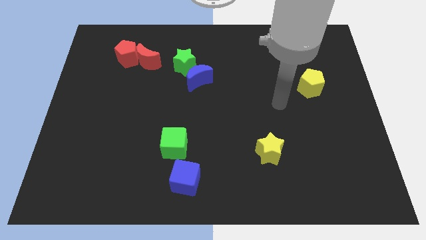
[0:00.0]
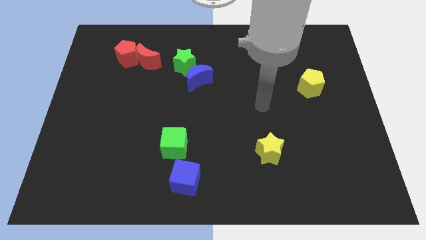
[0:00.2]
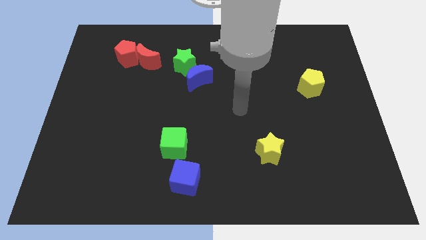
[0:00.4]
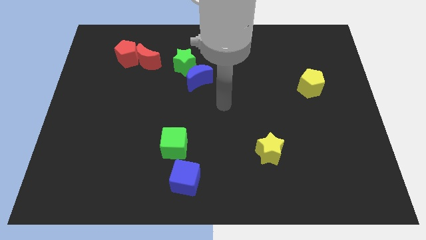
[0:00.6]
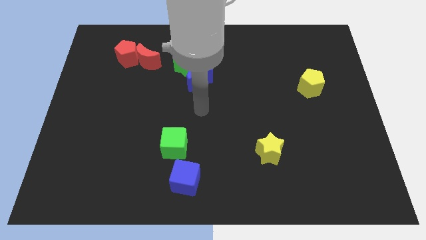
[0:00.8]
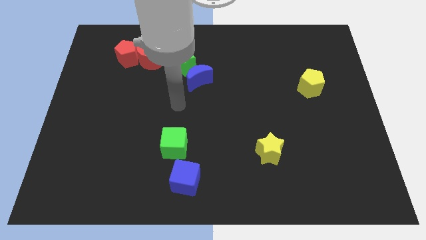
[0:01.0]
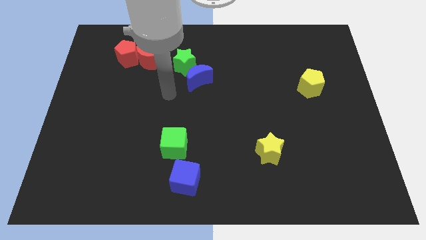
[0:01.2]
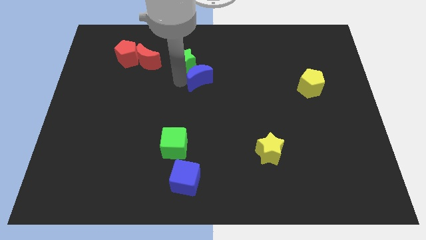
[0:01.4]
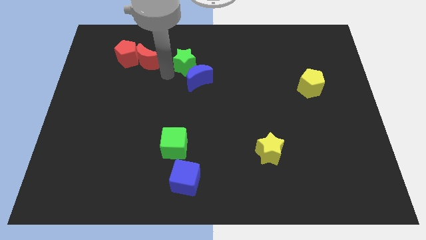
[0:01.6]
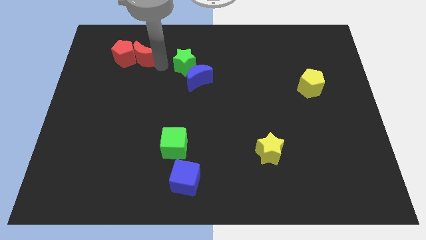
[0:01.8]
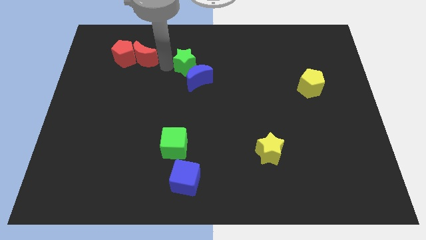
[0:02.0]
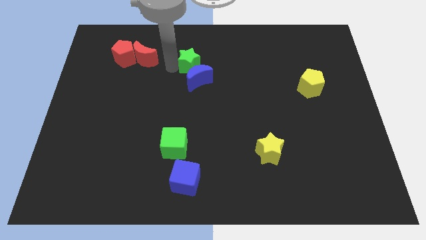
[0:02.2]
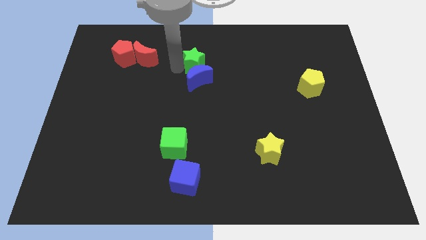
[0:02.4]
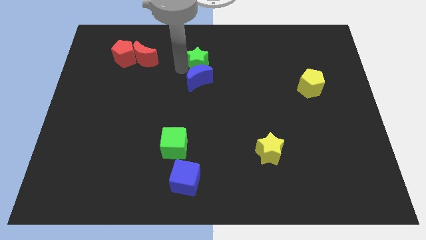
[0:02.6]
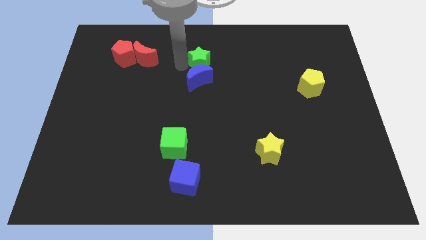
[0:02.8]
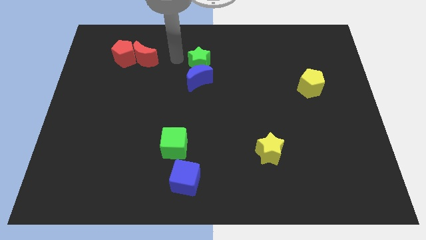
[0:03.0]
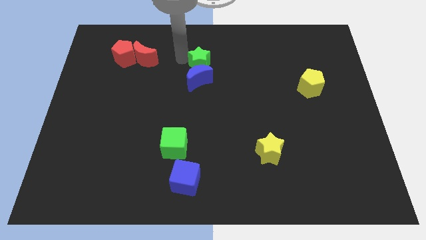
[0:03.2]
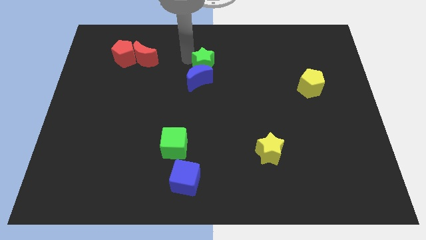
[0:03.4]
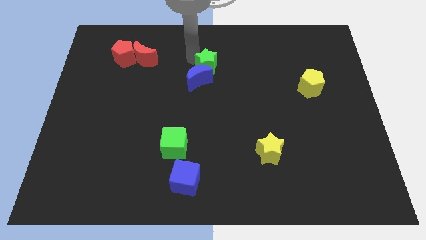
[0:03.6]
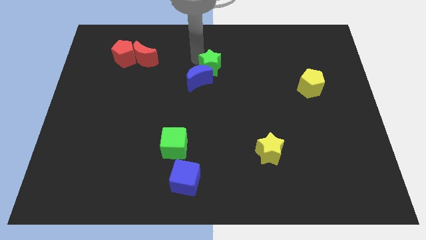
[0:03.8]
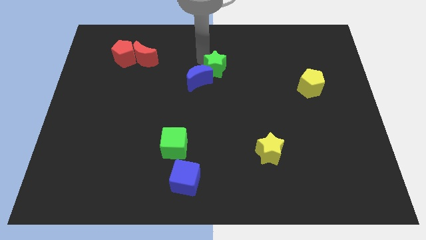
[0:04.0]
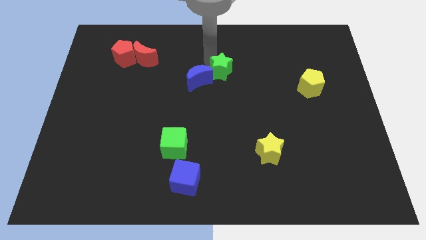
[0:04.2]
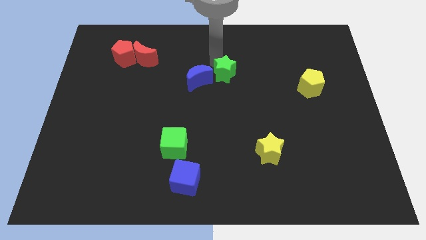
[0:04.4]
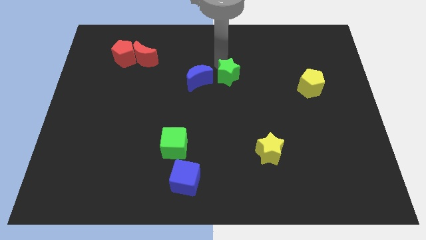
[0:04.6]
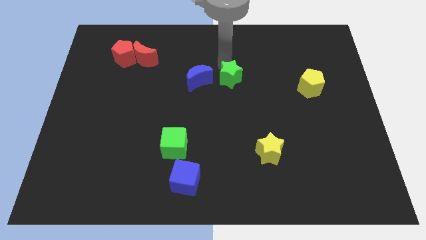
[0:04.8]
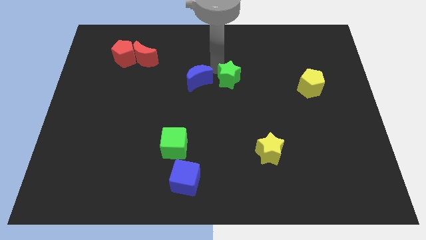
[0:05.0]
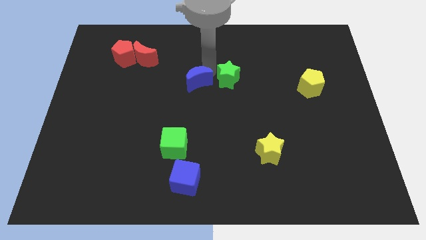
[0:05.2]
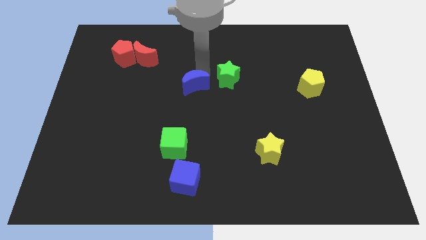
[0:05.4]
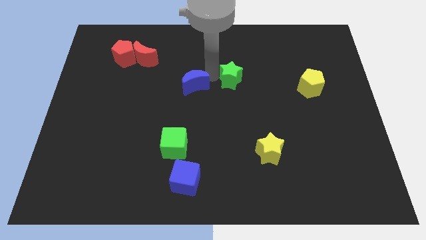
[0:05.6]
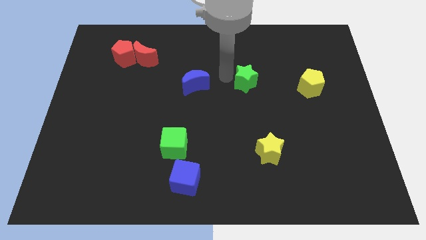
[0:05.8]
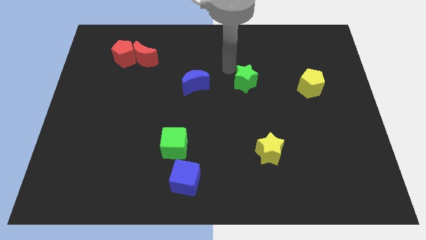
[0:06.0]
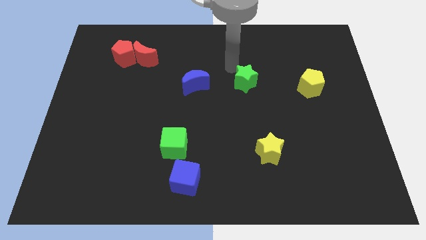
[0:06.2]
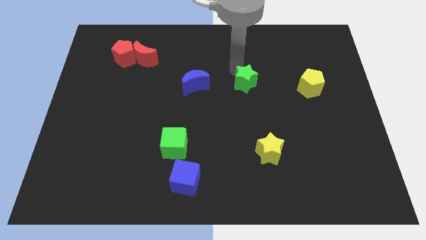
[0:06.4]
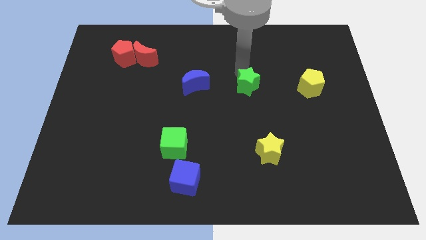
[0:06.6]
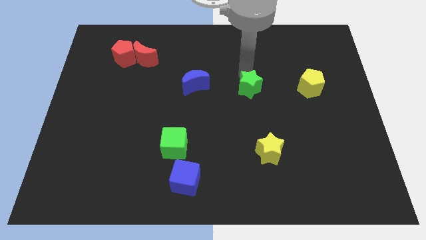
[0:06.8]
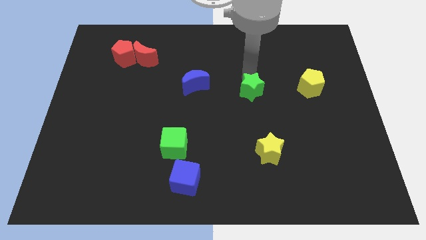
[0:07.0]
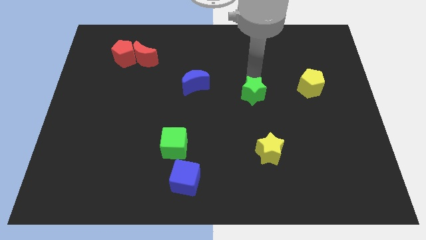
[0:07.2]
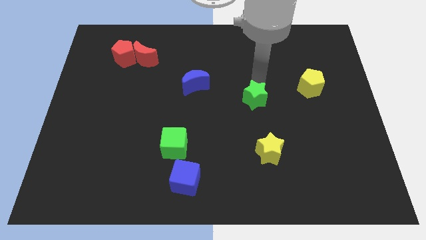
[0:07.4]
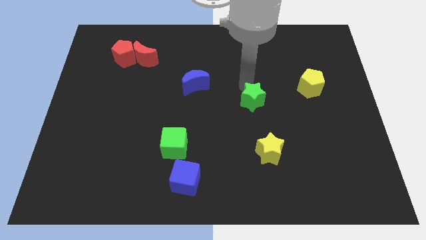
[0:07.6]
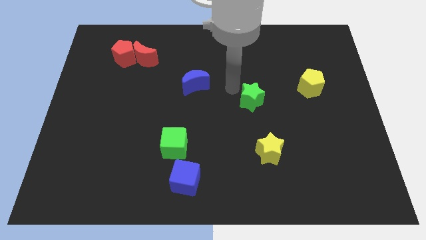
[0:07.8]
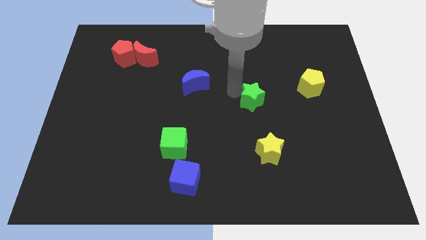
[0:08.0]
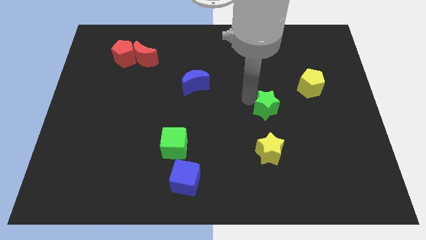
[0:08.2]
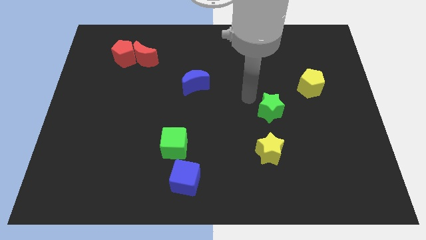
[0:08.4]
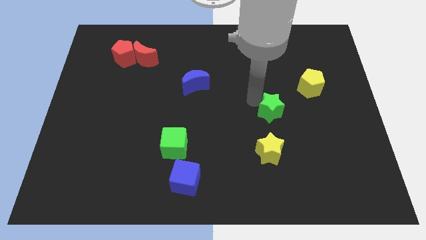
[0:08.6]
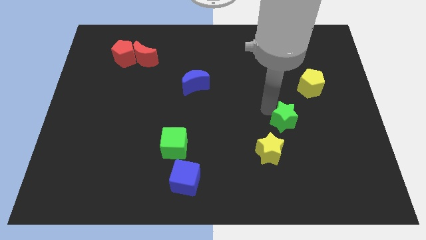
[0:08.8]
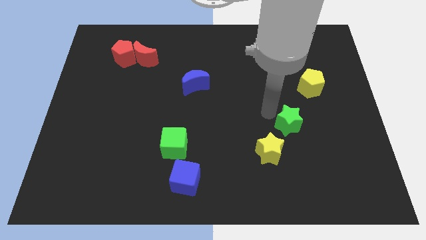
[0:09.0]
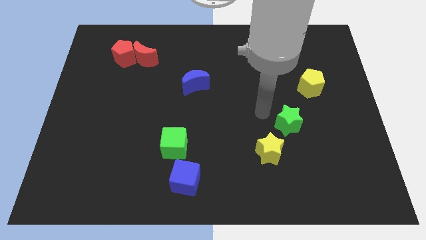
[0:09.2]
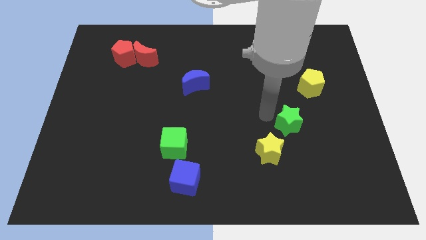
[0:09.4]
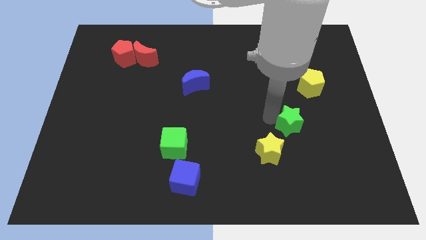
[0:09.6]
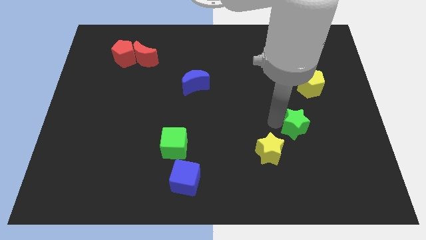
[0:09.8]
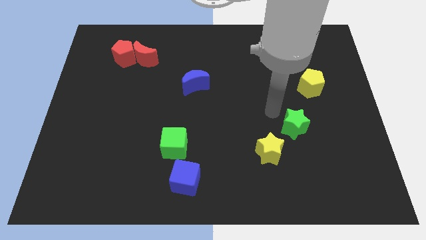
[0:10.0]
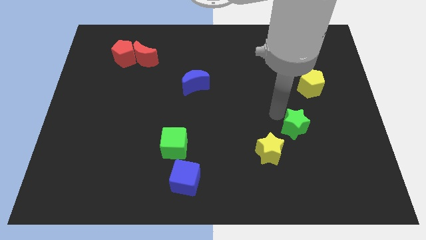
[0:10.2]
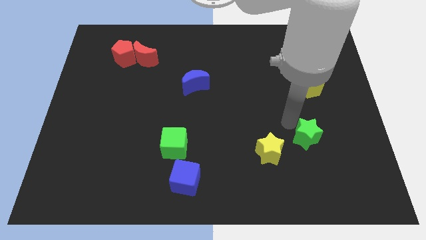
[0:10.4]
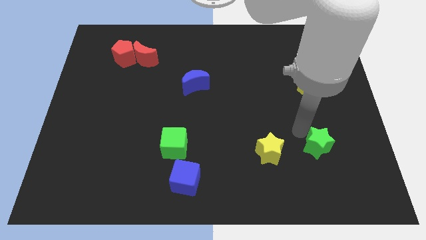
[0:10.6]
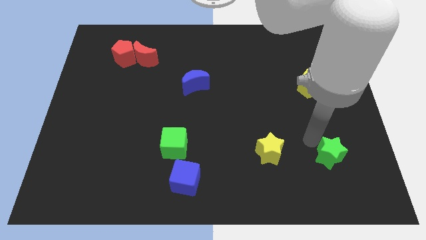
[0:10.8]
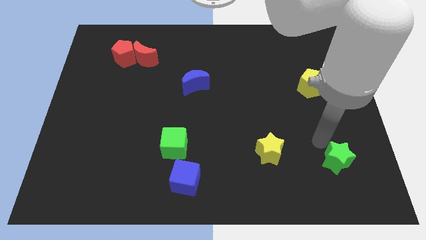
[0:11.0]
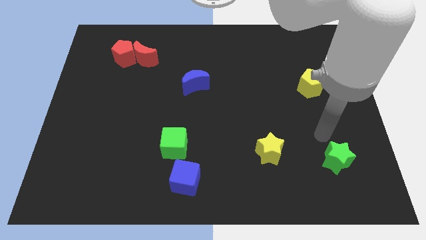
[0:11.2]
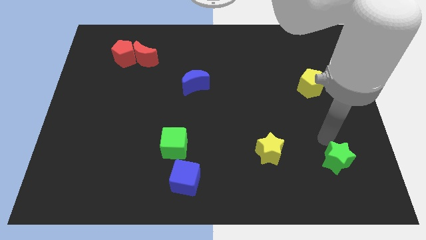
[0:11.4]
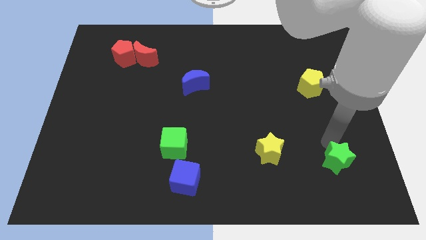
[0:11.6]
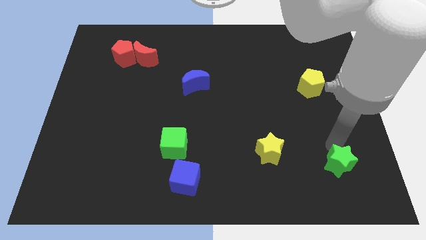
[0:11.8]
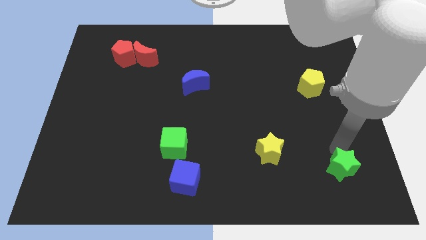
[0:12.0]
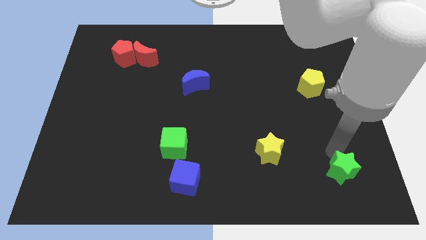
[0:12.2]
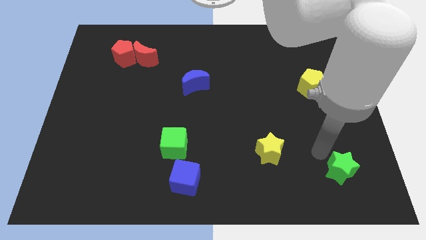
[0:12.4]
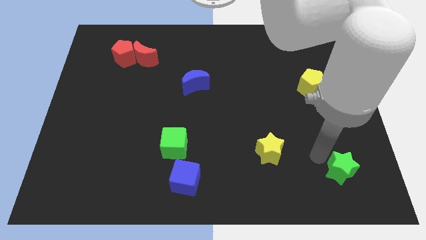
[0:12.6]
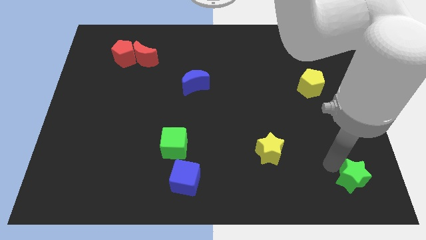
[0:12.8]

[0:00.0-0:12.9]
push the green star to the lower right corner
